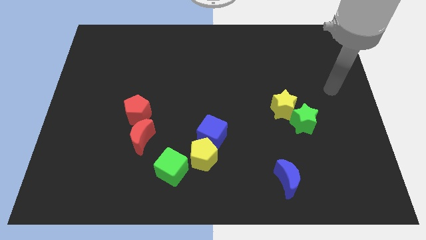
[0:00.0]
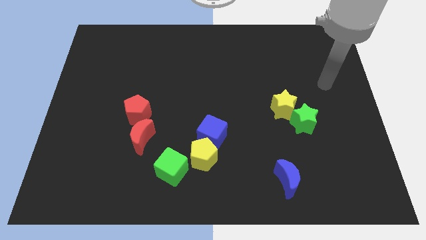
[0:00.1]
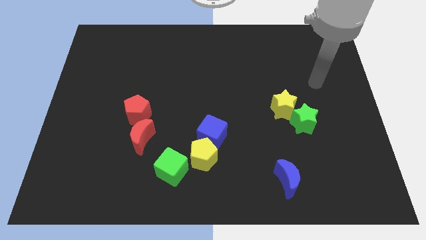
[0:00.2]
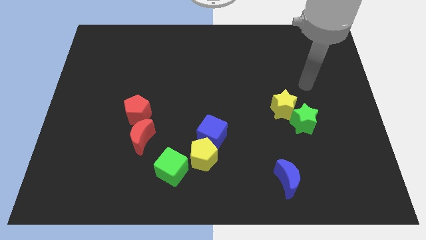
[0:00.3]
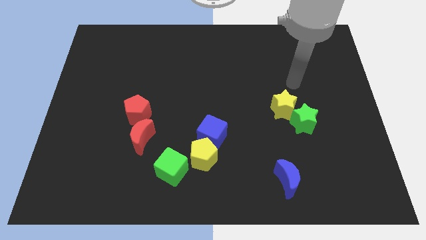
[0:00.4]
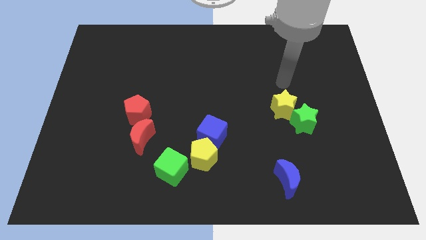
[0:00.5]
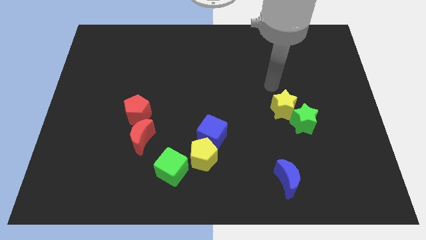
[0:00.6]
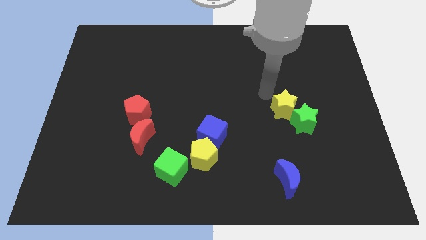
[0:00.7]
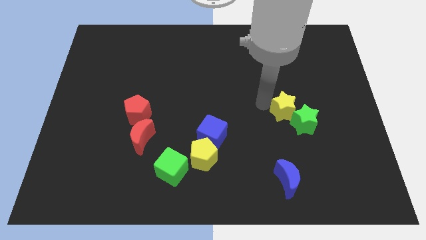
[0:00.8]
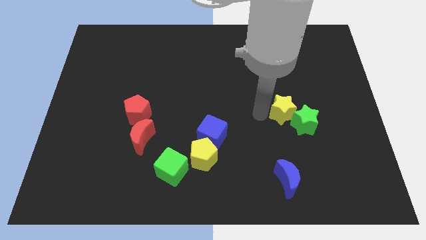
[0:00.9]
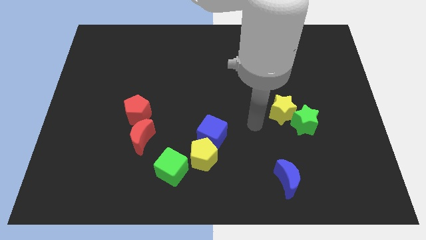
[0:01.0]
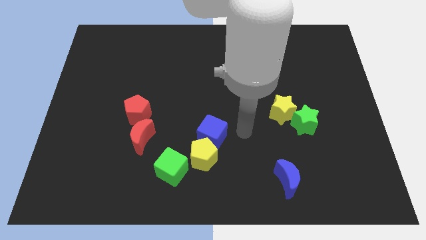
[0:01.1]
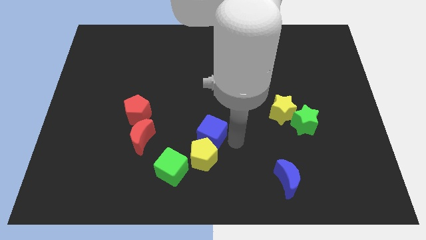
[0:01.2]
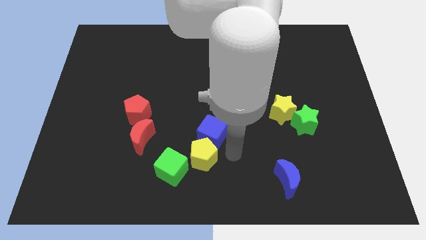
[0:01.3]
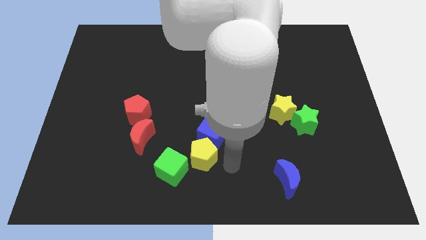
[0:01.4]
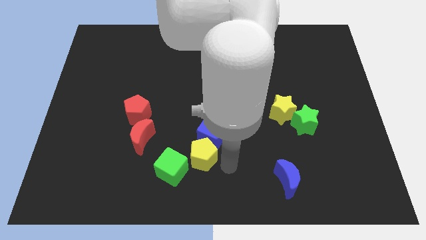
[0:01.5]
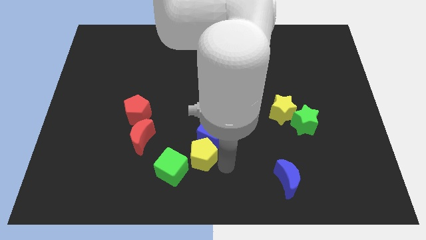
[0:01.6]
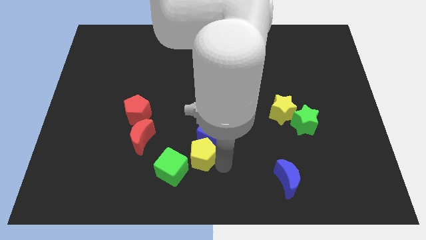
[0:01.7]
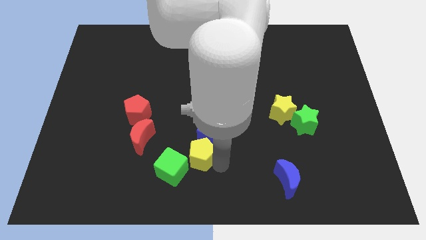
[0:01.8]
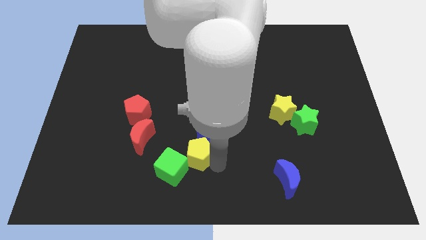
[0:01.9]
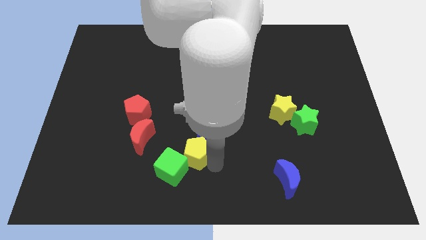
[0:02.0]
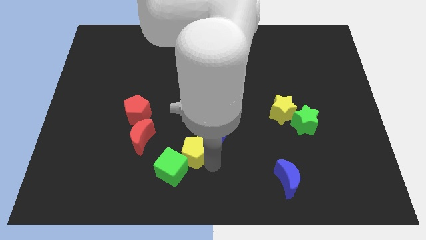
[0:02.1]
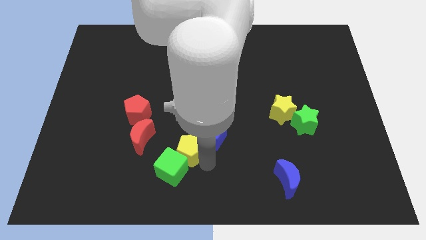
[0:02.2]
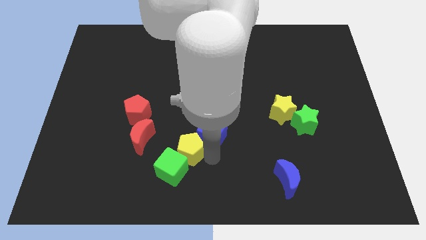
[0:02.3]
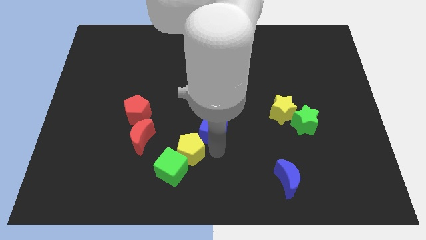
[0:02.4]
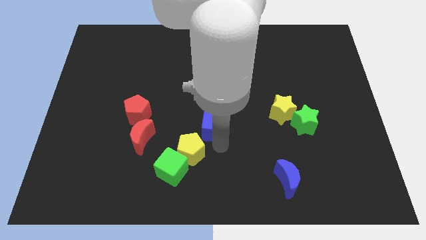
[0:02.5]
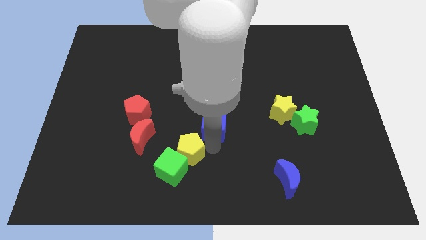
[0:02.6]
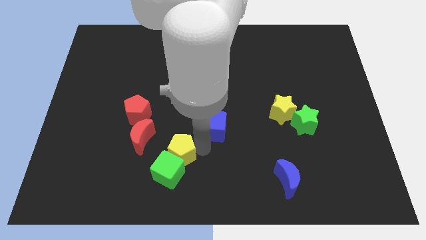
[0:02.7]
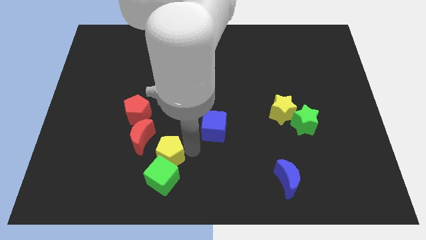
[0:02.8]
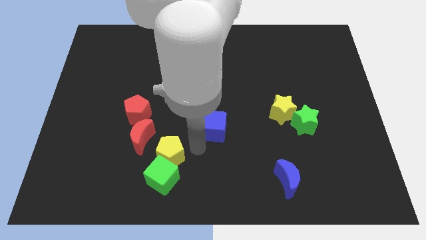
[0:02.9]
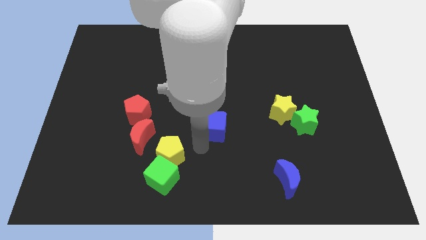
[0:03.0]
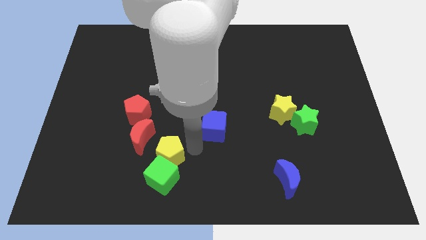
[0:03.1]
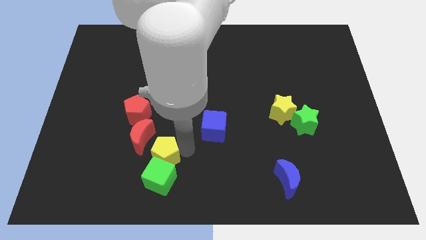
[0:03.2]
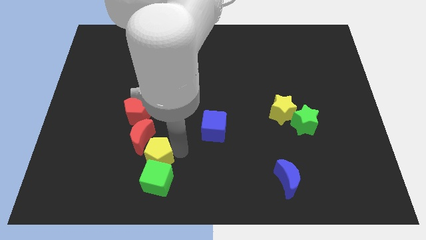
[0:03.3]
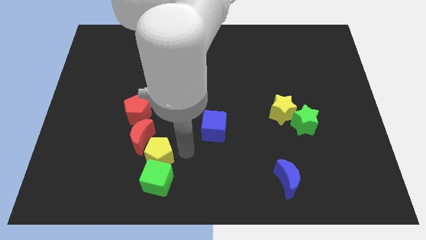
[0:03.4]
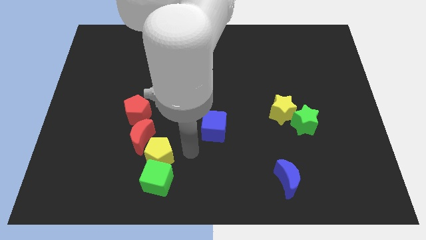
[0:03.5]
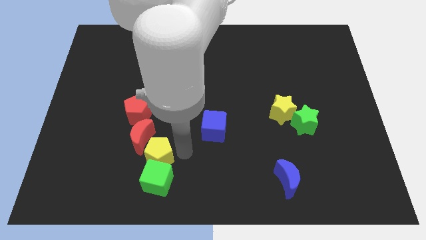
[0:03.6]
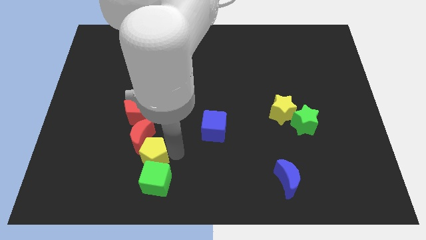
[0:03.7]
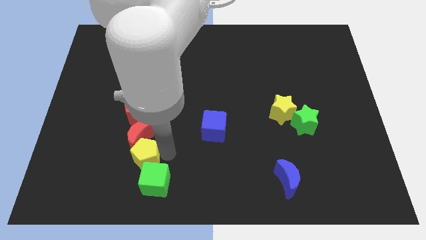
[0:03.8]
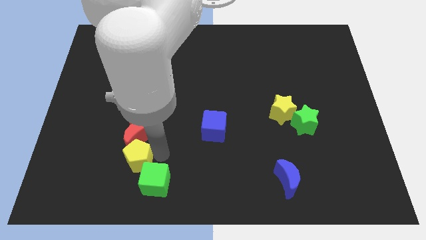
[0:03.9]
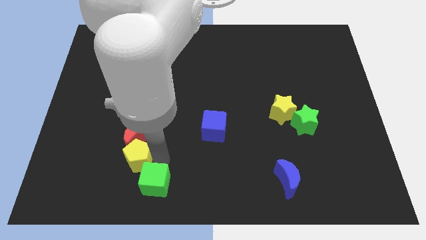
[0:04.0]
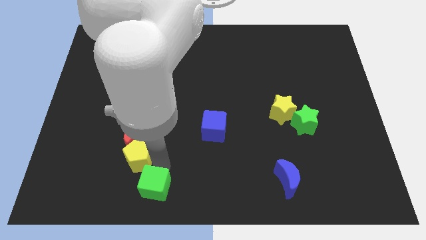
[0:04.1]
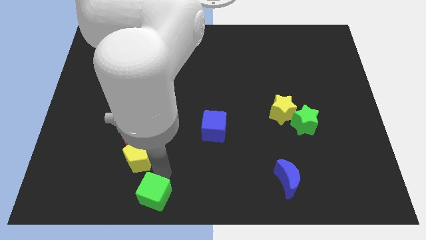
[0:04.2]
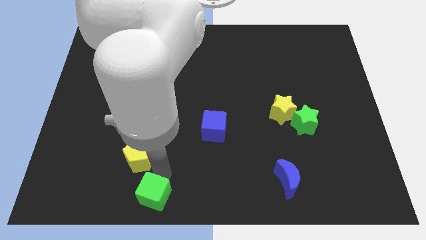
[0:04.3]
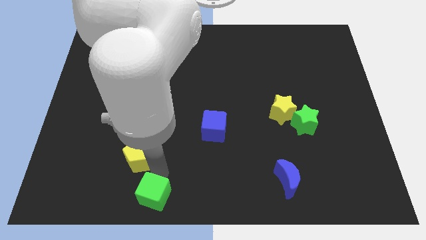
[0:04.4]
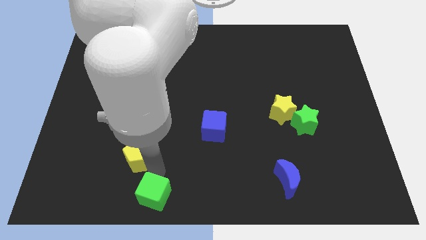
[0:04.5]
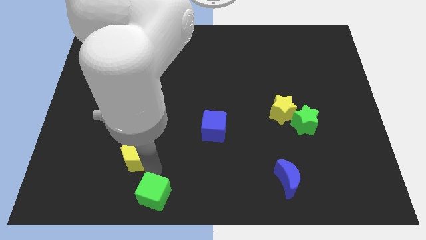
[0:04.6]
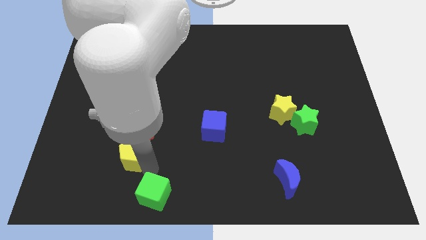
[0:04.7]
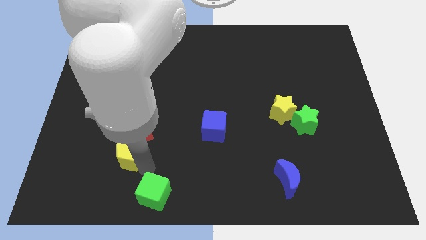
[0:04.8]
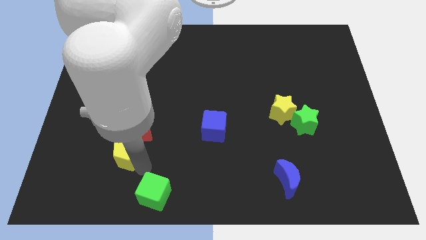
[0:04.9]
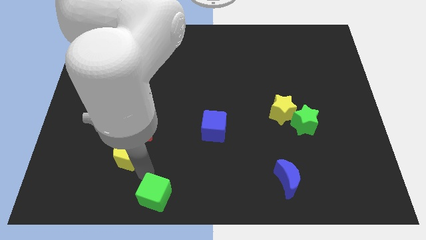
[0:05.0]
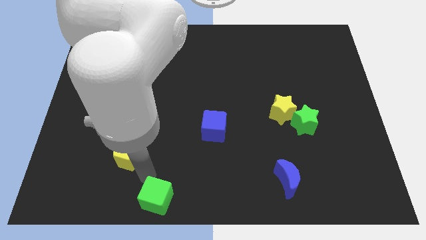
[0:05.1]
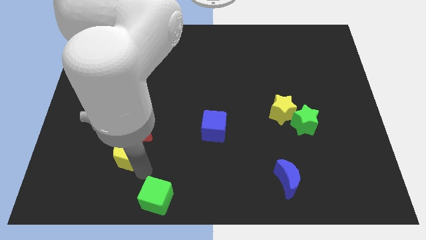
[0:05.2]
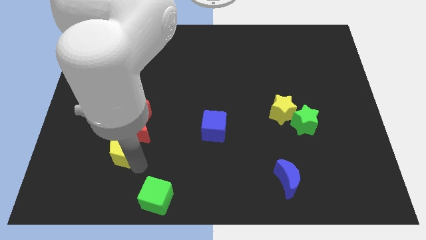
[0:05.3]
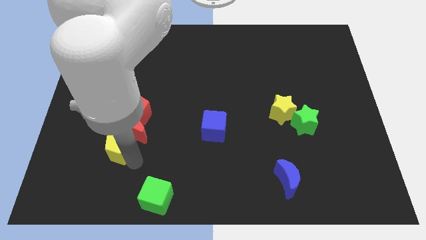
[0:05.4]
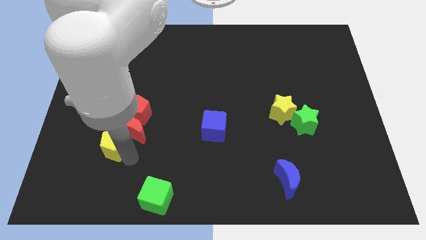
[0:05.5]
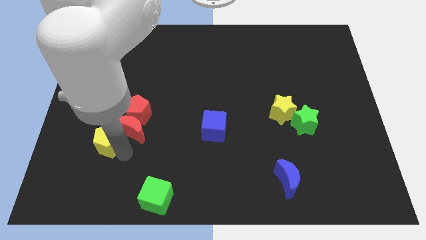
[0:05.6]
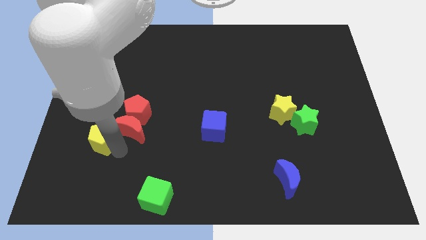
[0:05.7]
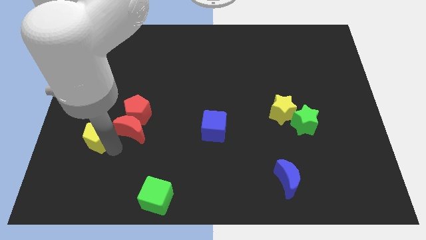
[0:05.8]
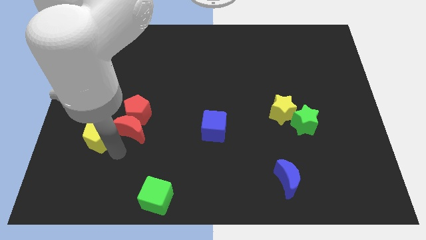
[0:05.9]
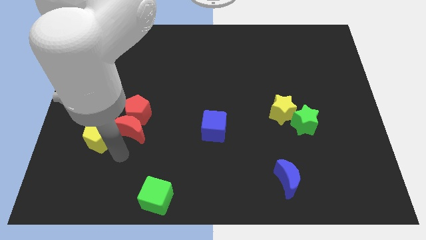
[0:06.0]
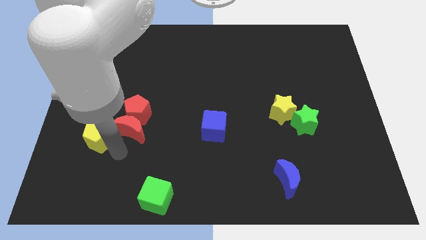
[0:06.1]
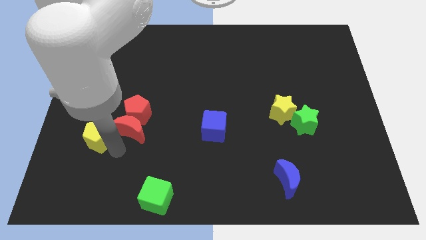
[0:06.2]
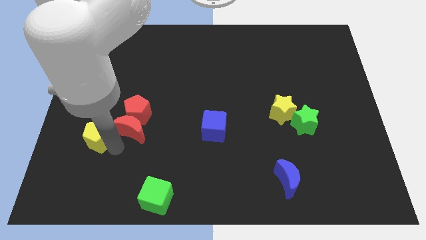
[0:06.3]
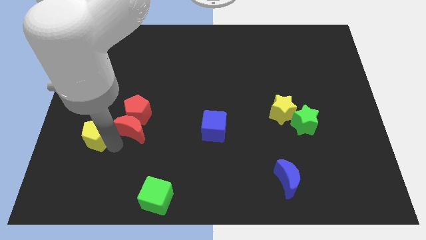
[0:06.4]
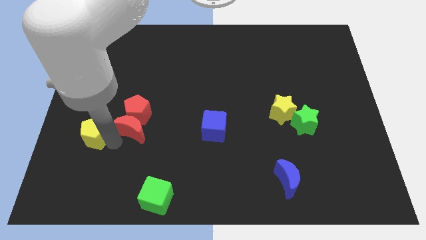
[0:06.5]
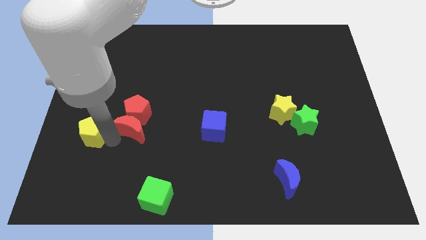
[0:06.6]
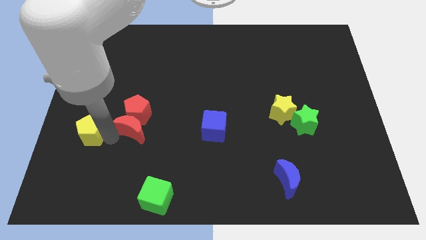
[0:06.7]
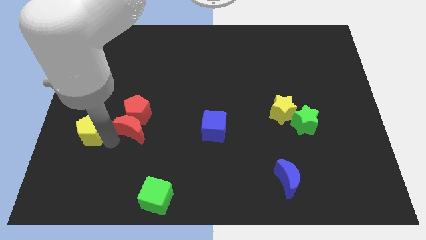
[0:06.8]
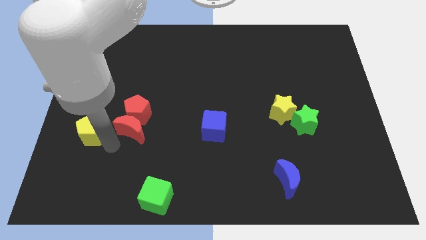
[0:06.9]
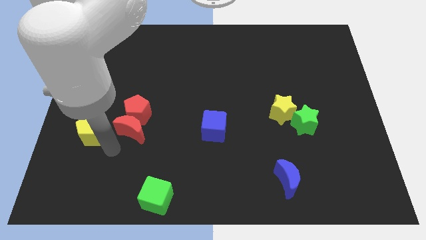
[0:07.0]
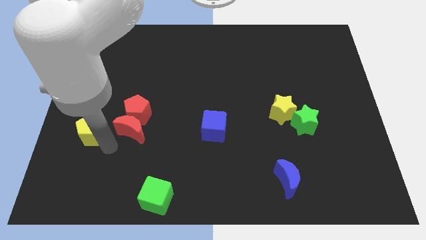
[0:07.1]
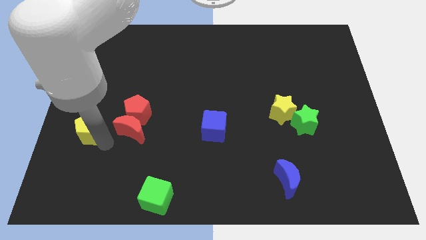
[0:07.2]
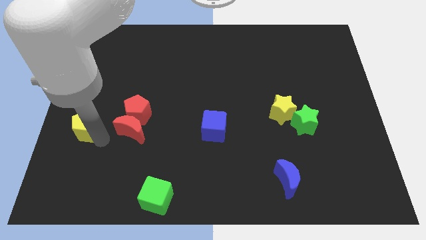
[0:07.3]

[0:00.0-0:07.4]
push the yellow pentagon to the left side of the board

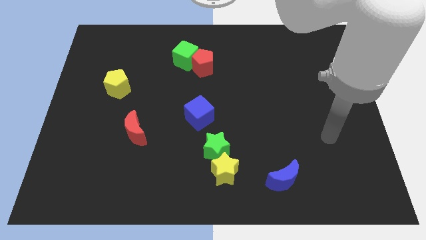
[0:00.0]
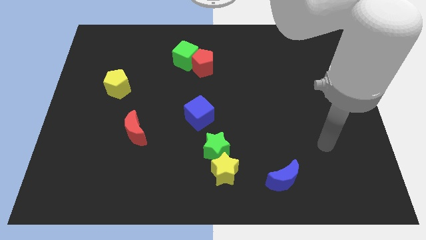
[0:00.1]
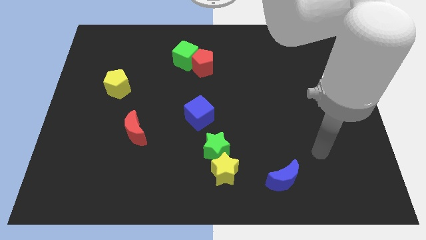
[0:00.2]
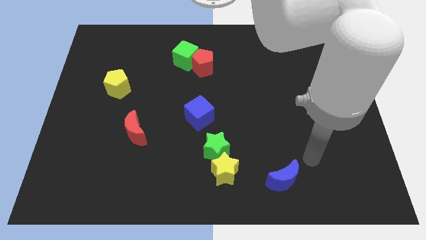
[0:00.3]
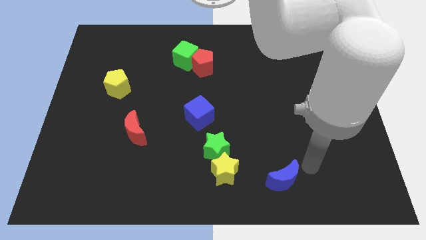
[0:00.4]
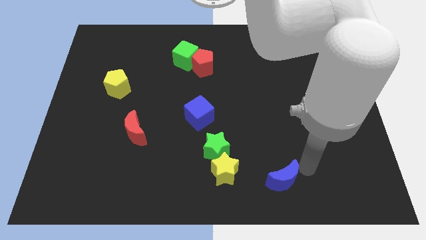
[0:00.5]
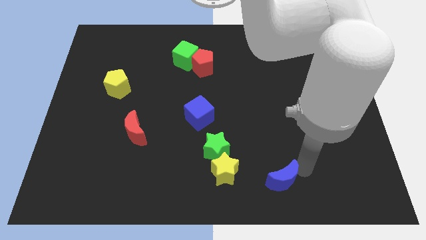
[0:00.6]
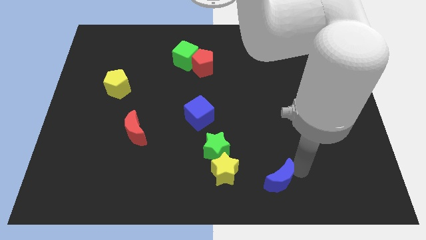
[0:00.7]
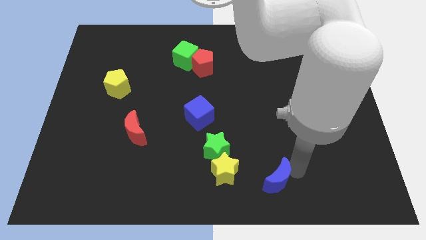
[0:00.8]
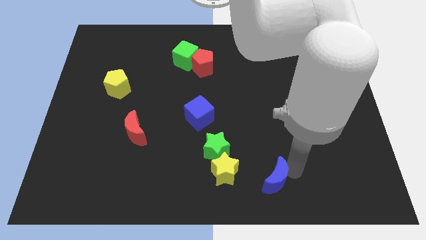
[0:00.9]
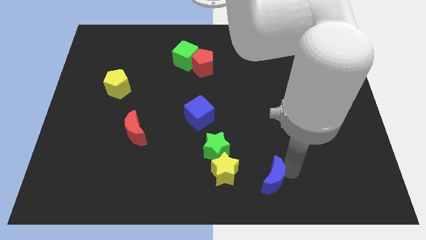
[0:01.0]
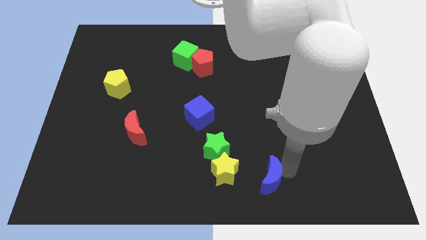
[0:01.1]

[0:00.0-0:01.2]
push the blue moon to the bottom

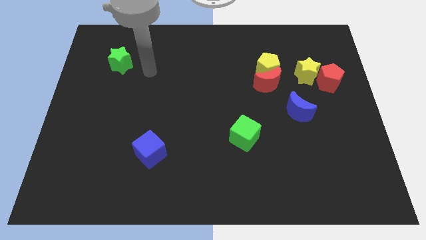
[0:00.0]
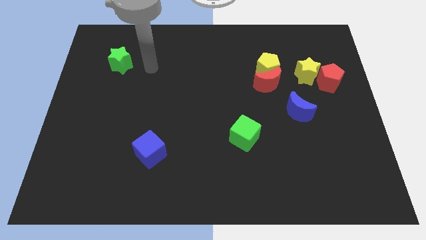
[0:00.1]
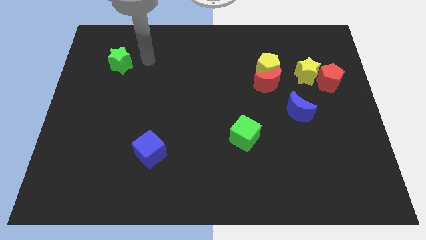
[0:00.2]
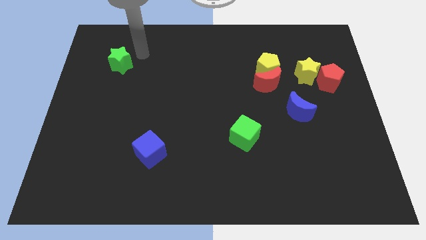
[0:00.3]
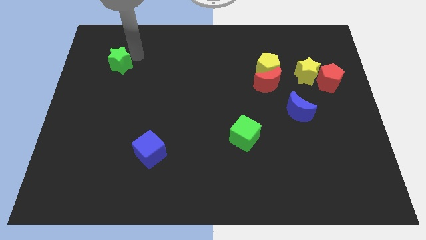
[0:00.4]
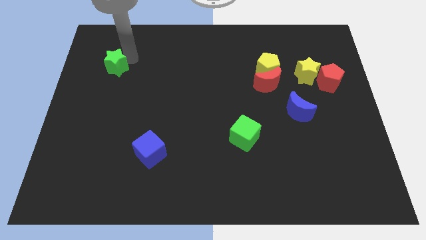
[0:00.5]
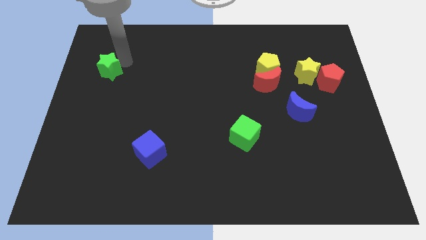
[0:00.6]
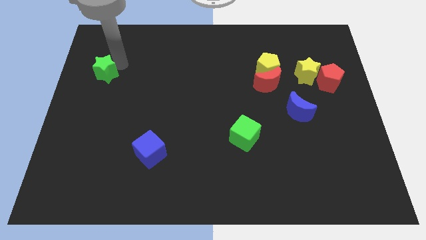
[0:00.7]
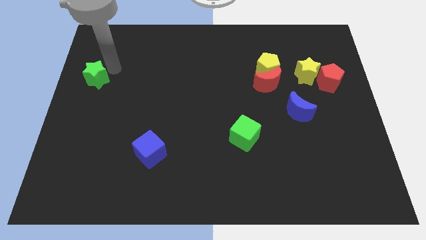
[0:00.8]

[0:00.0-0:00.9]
slide the green star to the left side of the board
